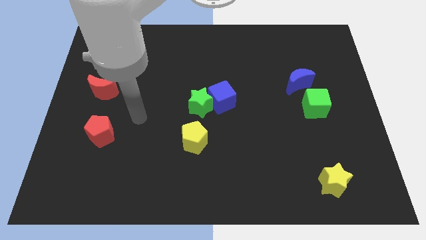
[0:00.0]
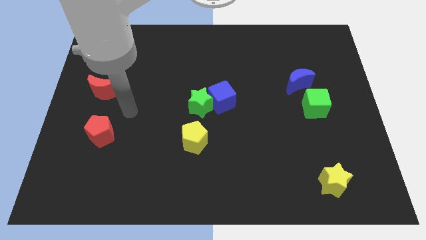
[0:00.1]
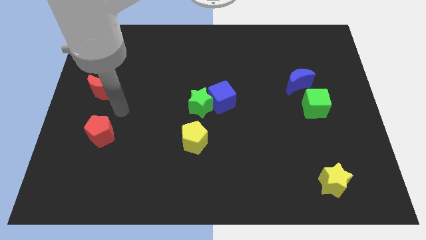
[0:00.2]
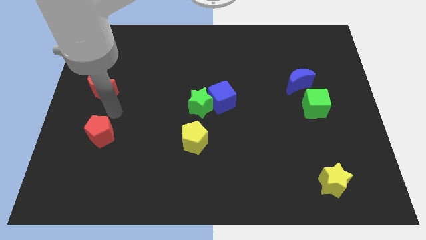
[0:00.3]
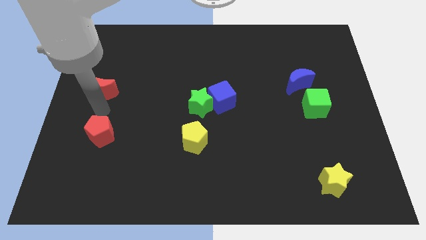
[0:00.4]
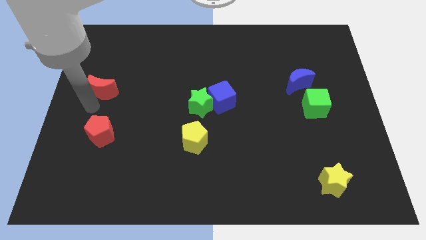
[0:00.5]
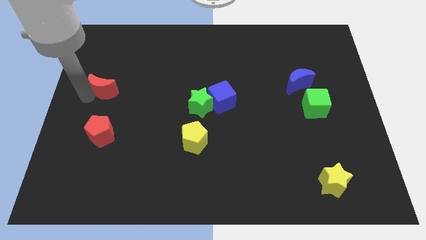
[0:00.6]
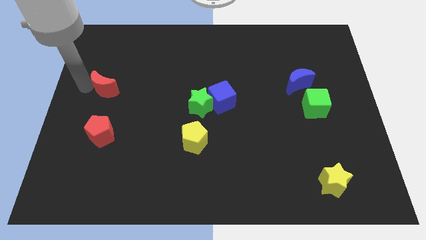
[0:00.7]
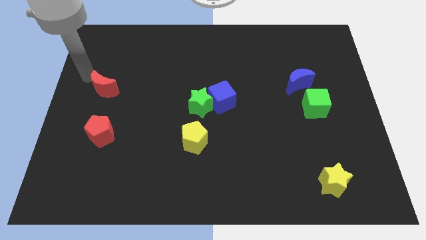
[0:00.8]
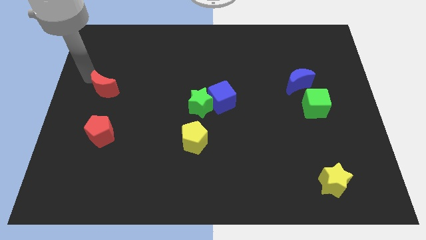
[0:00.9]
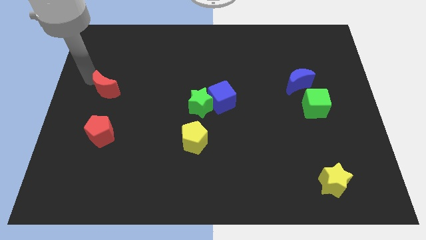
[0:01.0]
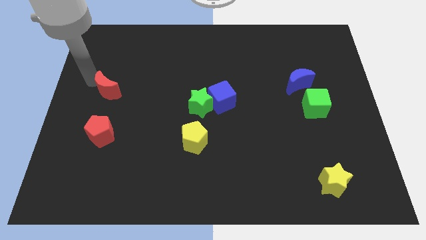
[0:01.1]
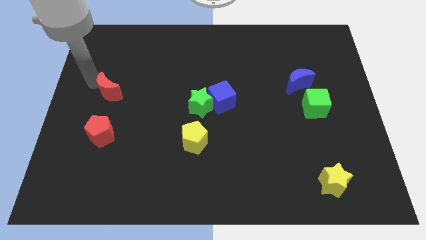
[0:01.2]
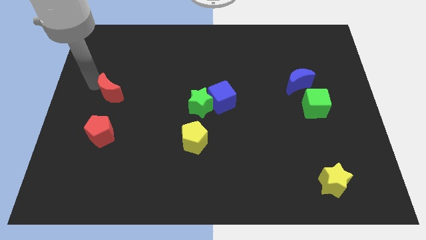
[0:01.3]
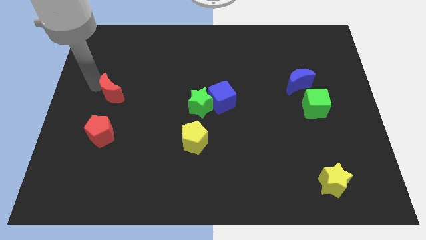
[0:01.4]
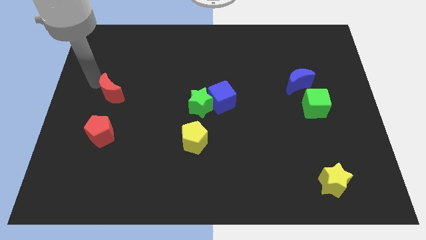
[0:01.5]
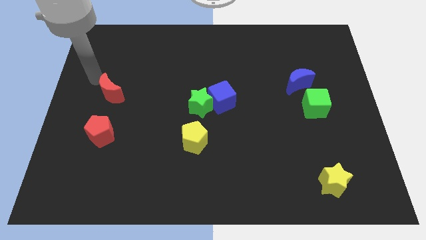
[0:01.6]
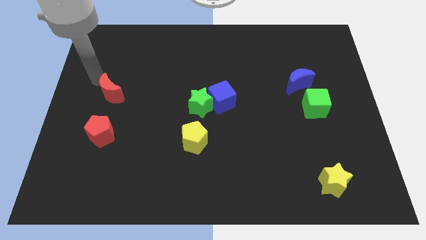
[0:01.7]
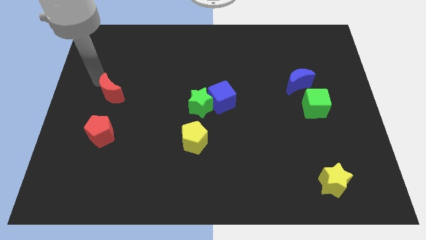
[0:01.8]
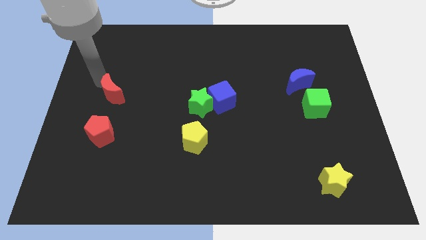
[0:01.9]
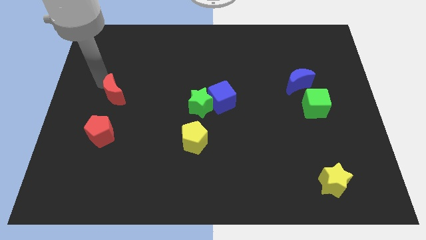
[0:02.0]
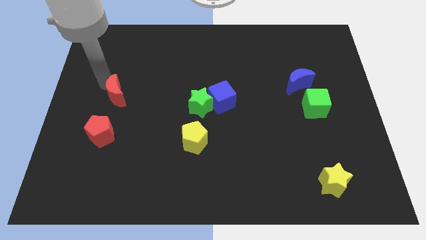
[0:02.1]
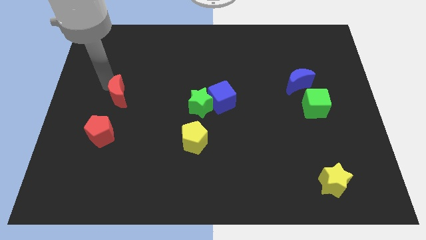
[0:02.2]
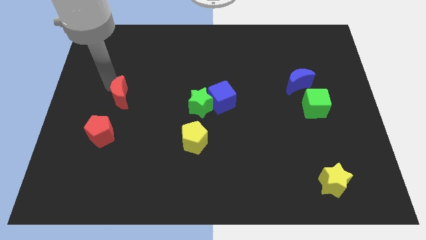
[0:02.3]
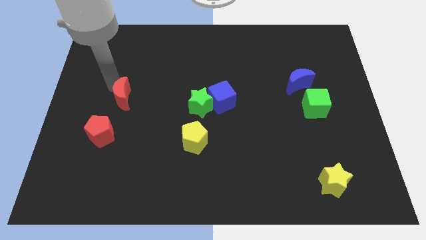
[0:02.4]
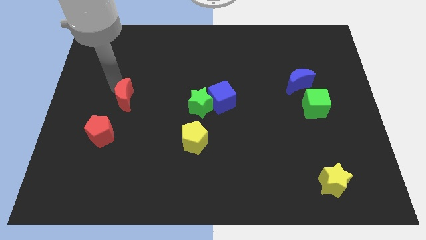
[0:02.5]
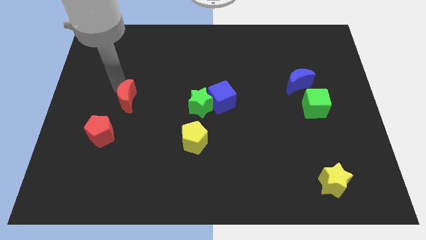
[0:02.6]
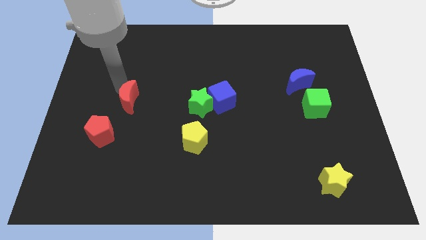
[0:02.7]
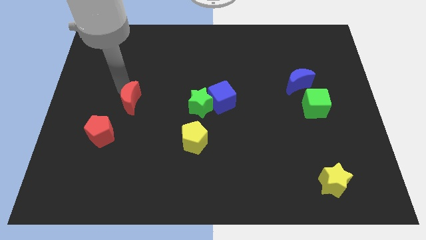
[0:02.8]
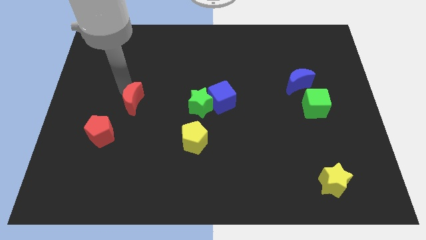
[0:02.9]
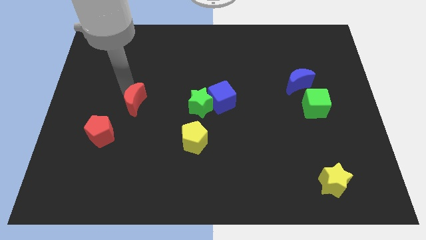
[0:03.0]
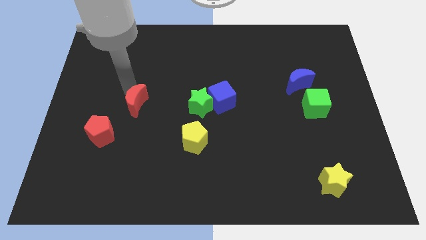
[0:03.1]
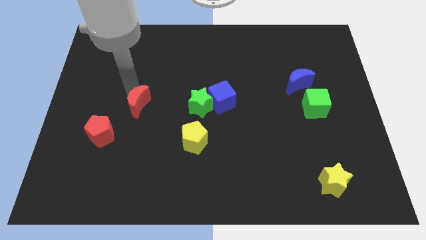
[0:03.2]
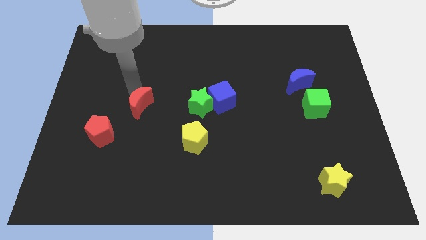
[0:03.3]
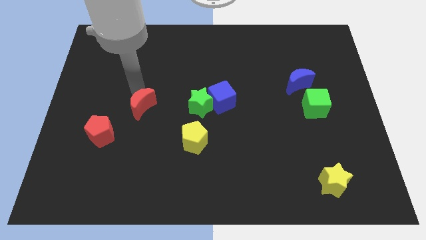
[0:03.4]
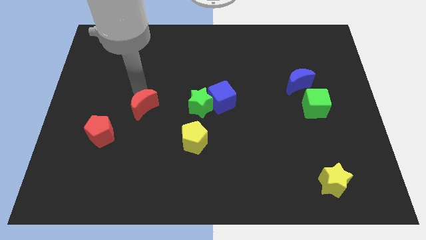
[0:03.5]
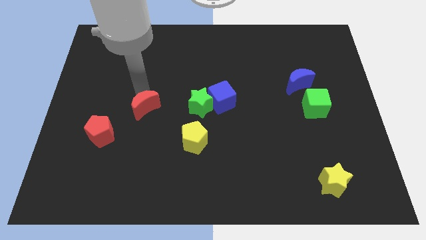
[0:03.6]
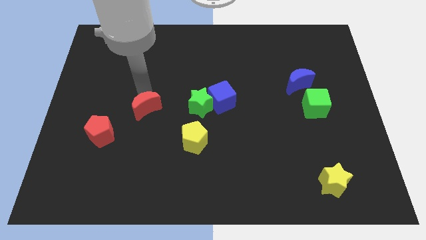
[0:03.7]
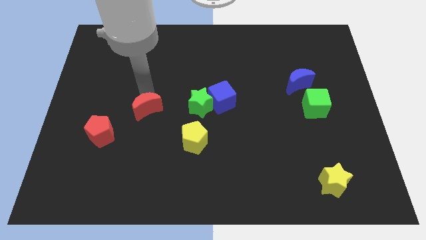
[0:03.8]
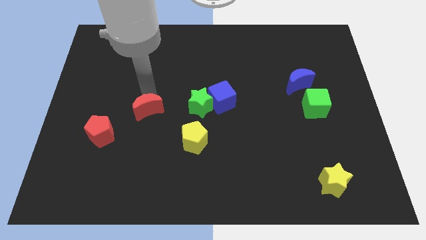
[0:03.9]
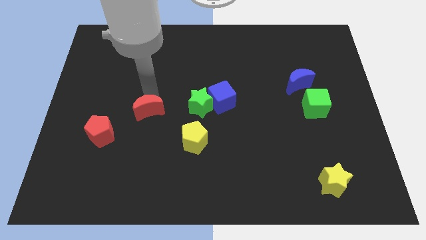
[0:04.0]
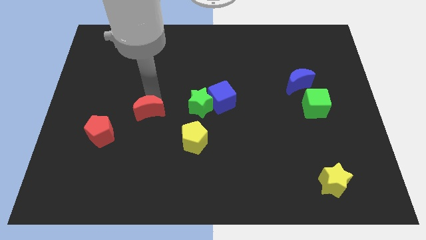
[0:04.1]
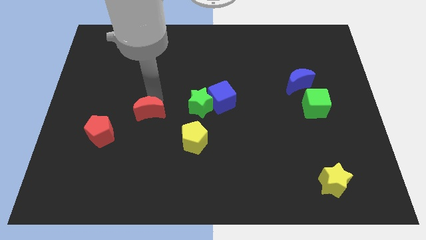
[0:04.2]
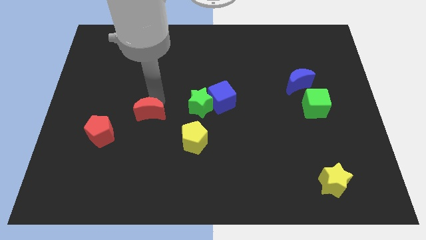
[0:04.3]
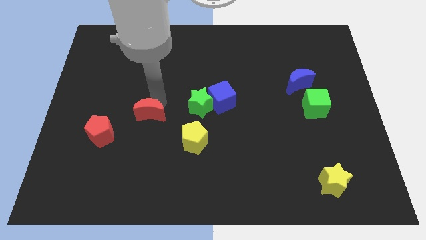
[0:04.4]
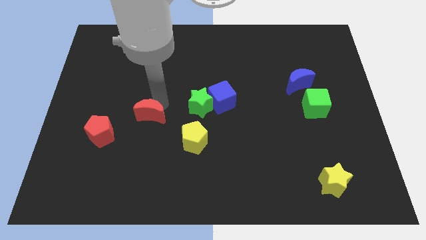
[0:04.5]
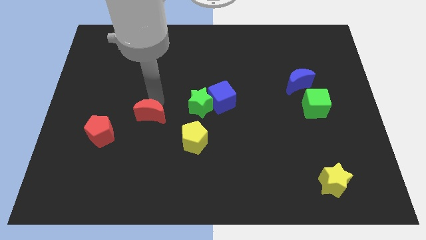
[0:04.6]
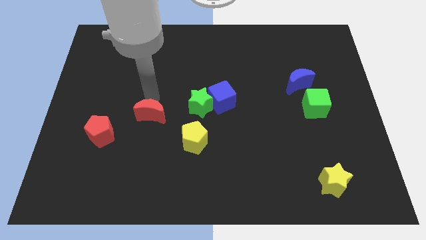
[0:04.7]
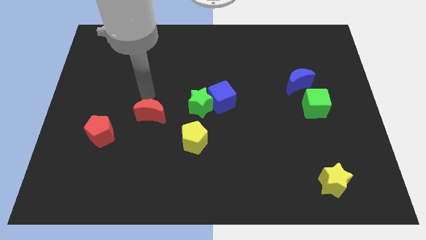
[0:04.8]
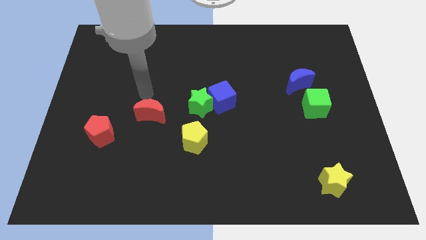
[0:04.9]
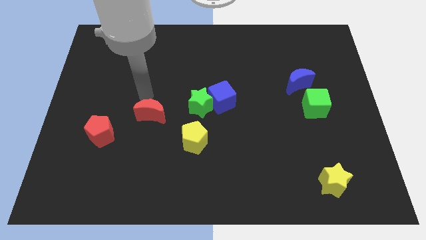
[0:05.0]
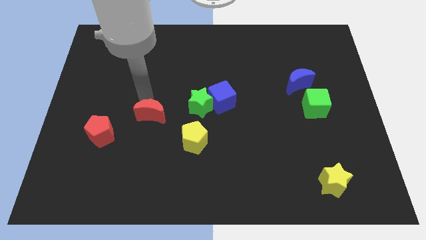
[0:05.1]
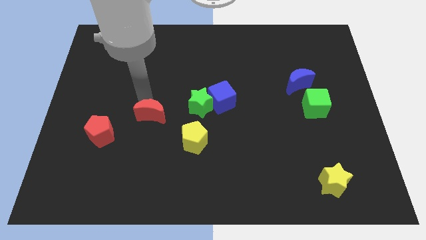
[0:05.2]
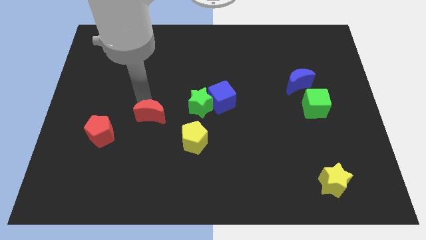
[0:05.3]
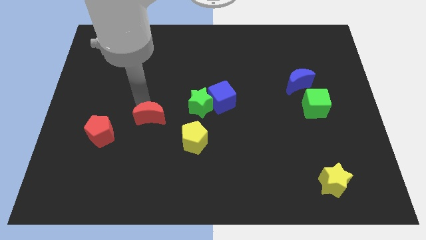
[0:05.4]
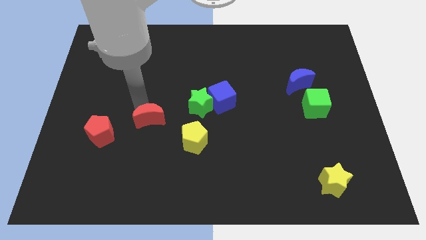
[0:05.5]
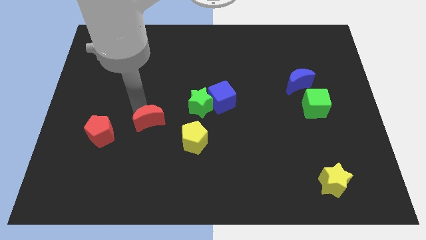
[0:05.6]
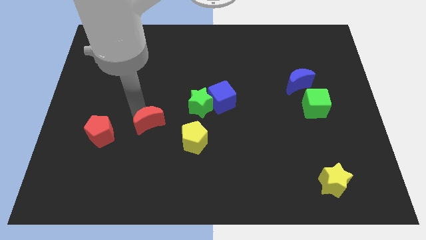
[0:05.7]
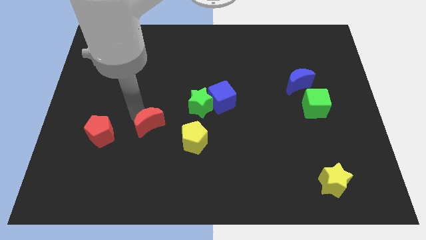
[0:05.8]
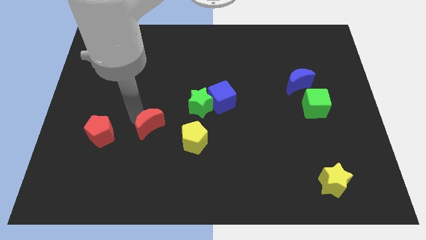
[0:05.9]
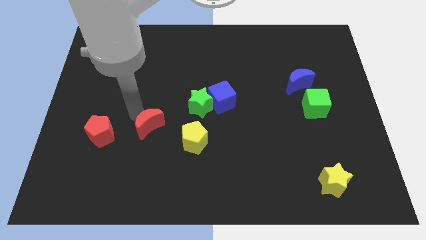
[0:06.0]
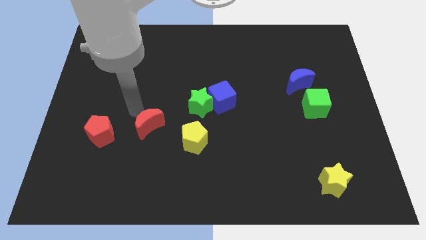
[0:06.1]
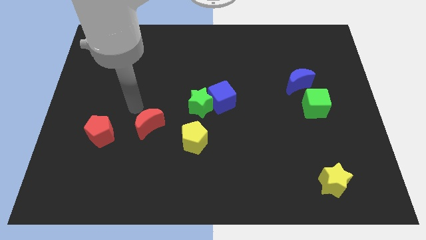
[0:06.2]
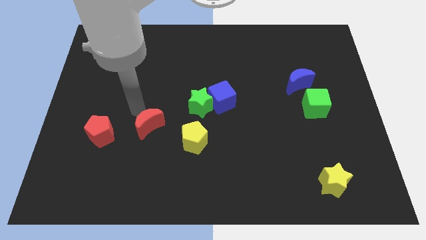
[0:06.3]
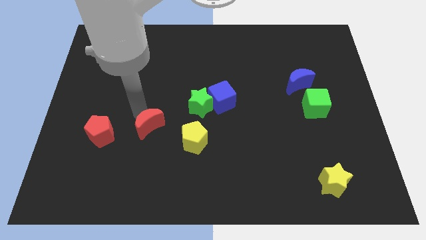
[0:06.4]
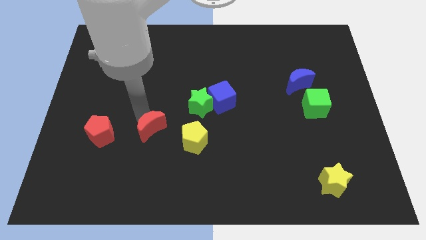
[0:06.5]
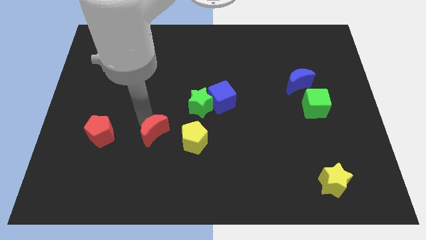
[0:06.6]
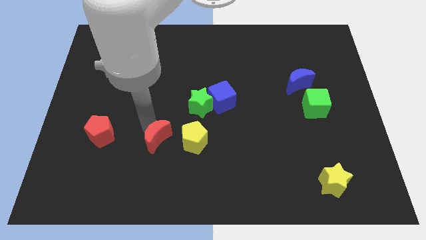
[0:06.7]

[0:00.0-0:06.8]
move the red moon downwards and then to the right

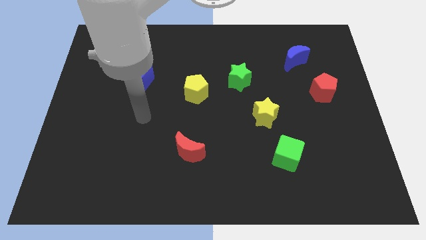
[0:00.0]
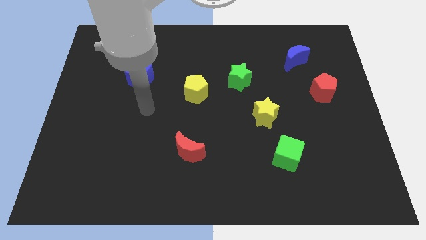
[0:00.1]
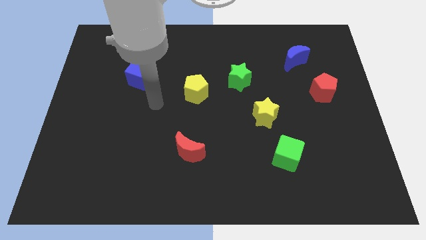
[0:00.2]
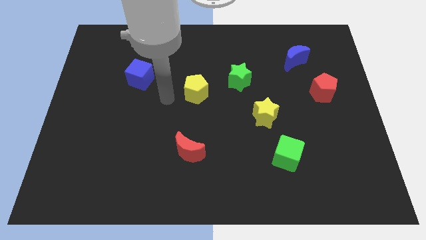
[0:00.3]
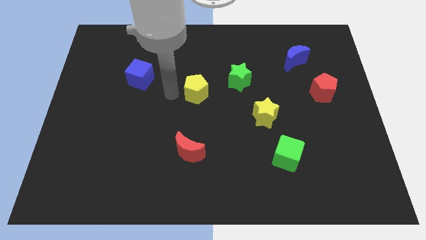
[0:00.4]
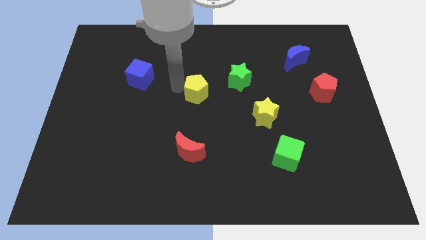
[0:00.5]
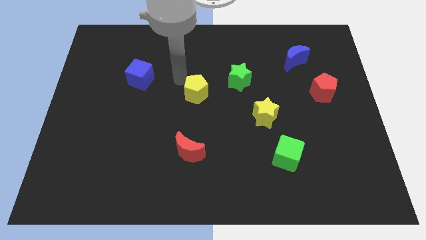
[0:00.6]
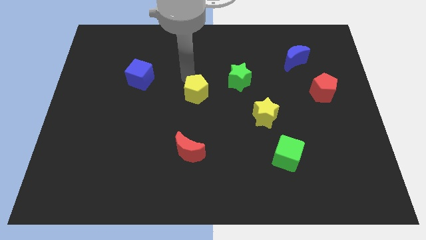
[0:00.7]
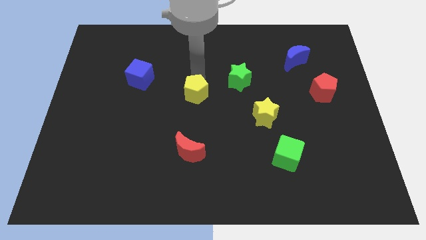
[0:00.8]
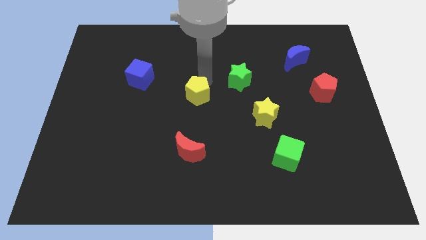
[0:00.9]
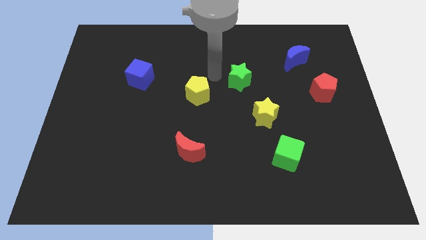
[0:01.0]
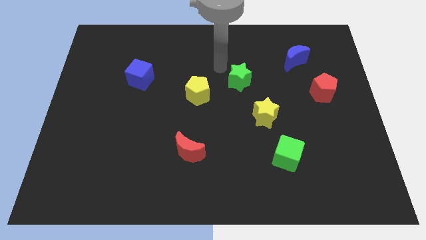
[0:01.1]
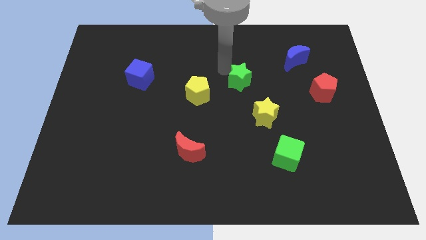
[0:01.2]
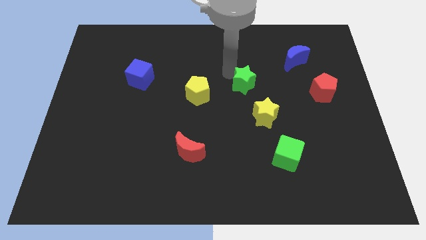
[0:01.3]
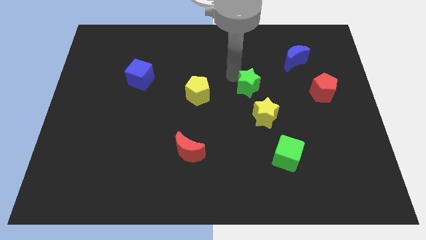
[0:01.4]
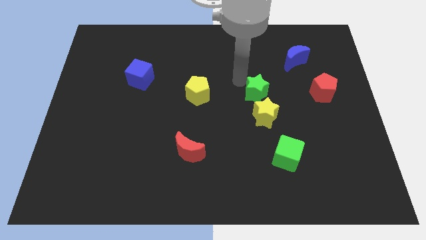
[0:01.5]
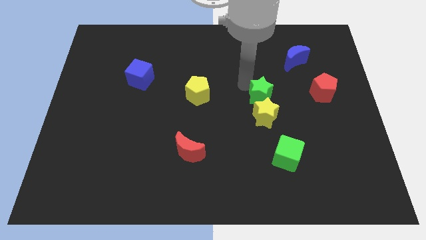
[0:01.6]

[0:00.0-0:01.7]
move the green star down and to the right a little
